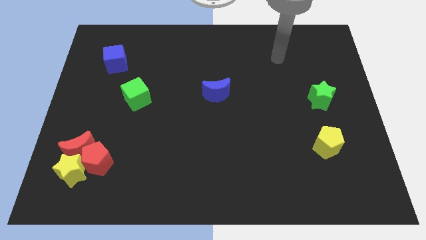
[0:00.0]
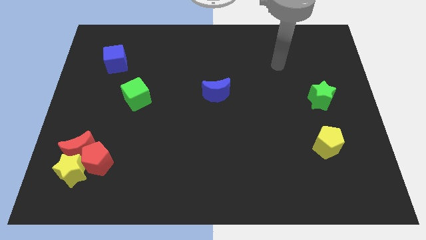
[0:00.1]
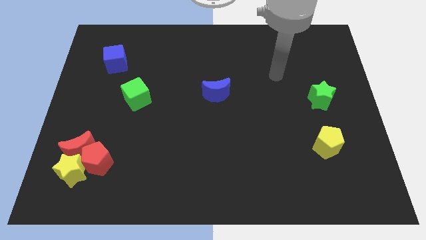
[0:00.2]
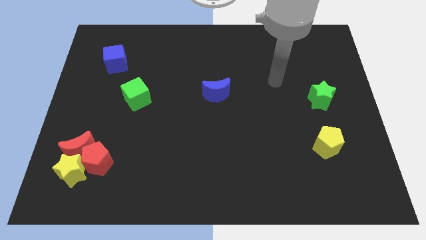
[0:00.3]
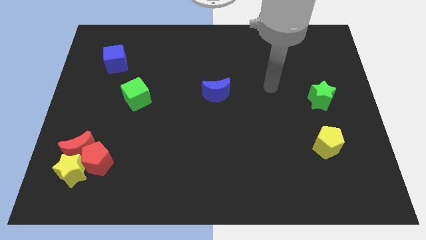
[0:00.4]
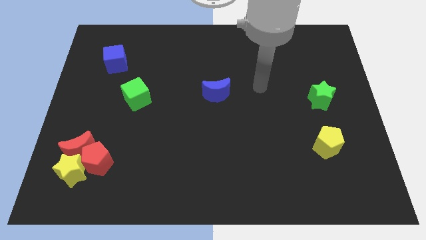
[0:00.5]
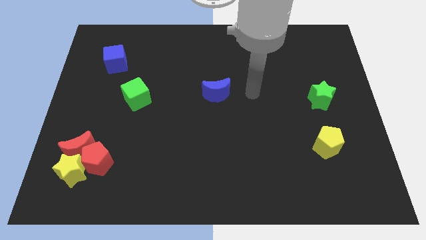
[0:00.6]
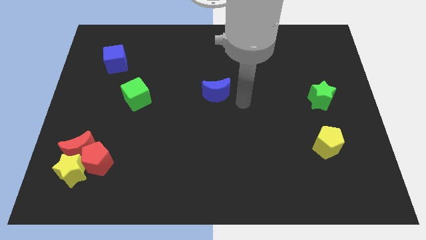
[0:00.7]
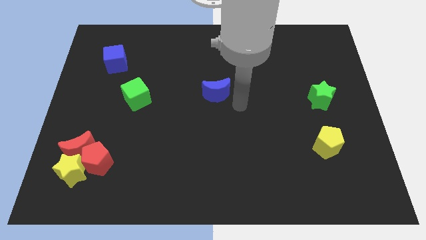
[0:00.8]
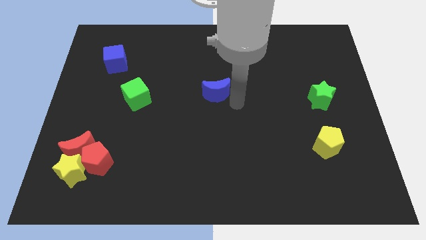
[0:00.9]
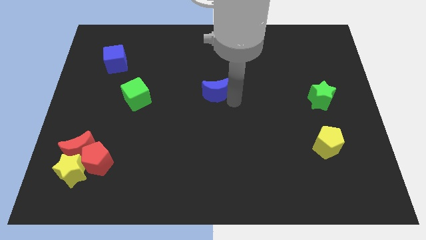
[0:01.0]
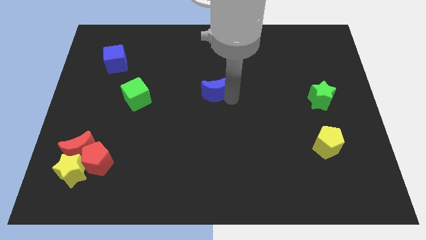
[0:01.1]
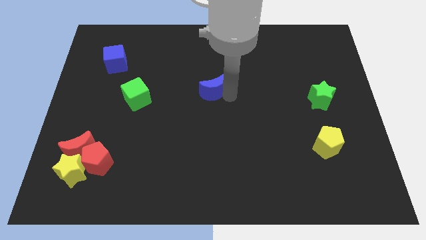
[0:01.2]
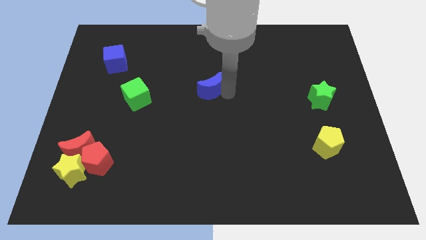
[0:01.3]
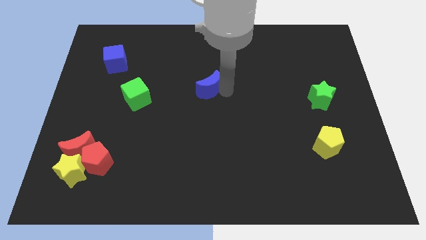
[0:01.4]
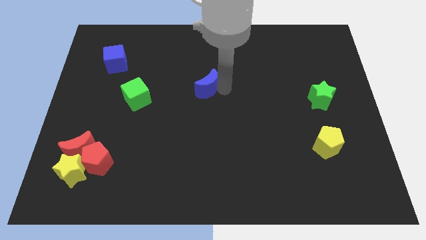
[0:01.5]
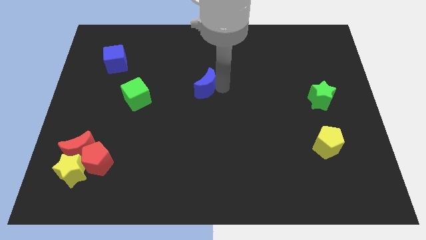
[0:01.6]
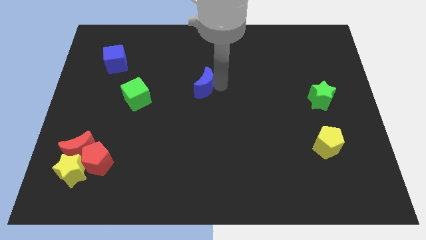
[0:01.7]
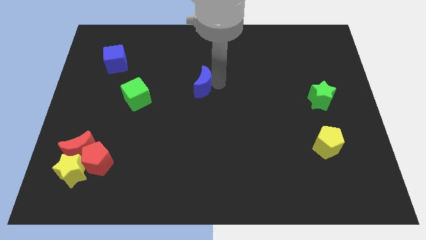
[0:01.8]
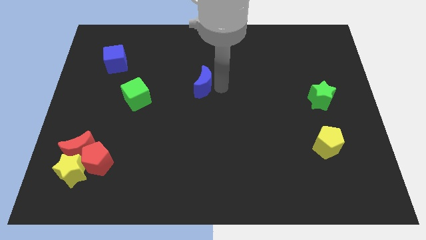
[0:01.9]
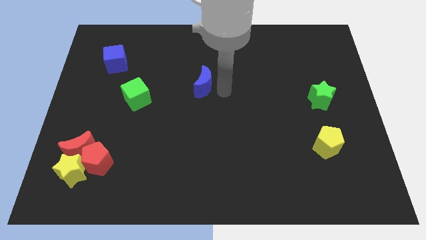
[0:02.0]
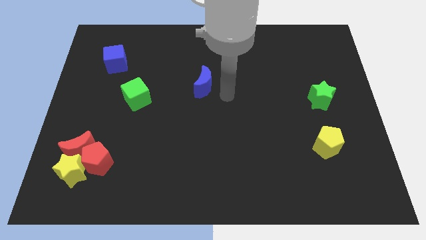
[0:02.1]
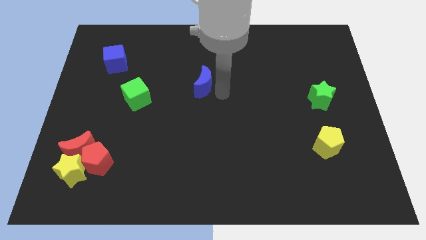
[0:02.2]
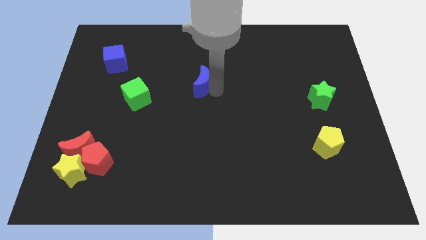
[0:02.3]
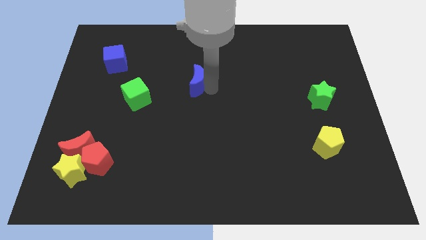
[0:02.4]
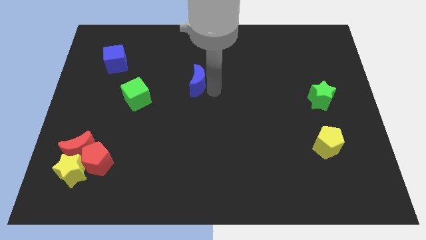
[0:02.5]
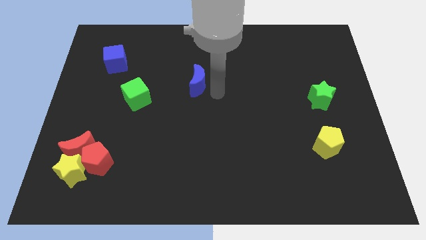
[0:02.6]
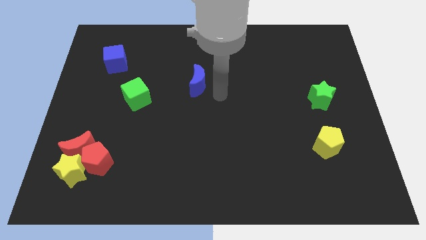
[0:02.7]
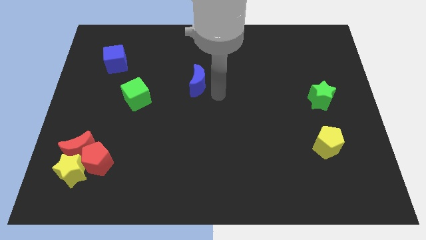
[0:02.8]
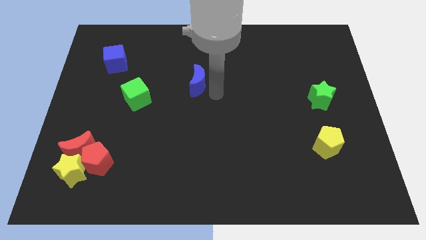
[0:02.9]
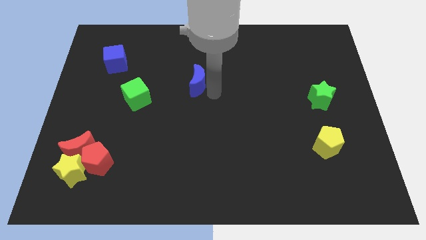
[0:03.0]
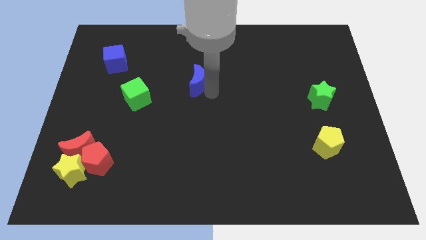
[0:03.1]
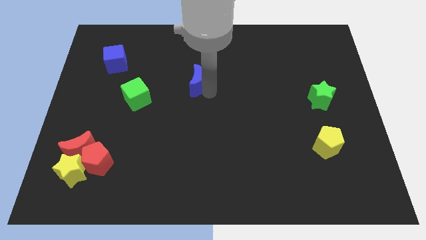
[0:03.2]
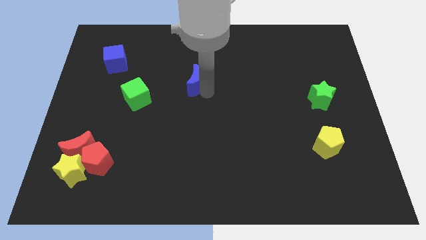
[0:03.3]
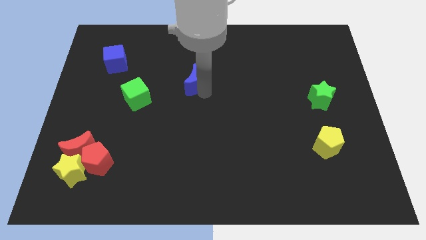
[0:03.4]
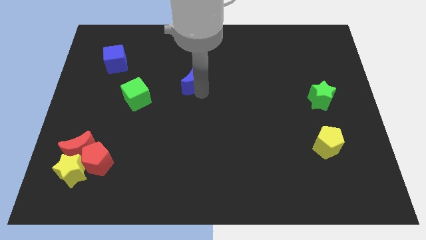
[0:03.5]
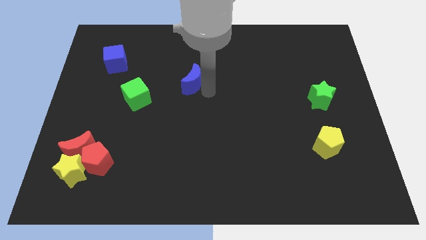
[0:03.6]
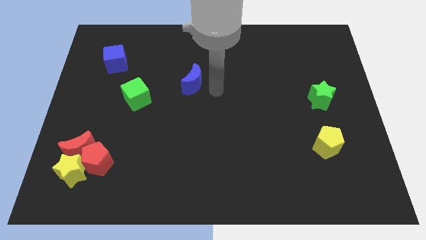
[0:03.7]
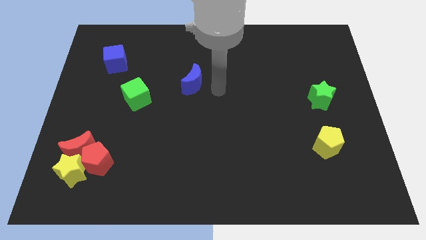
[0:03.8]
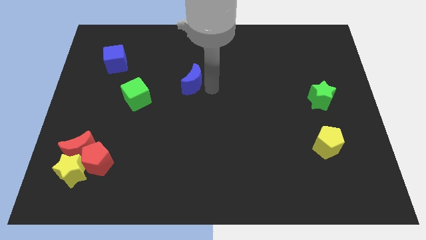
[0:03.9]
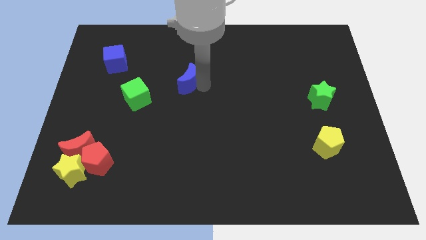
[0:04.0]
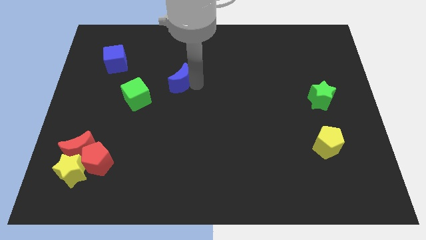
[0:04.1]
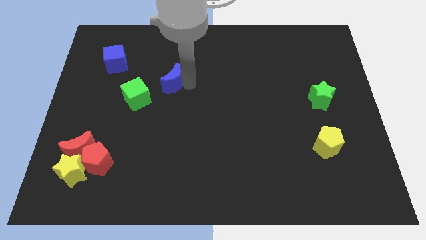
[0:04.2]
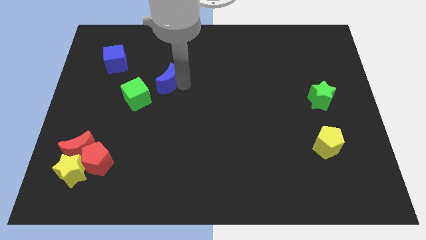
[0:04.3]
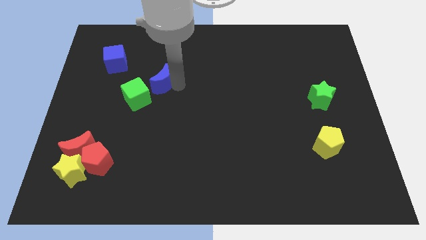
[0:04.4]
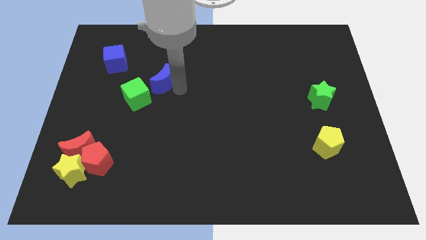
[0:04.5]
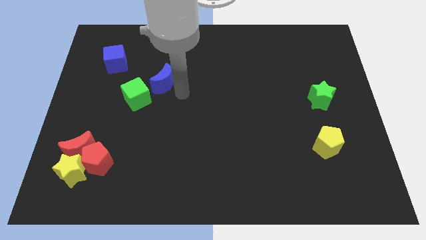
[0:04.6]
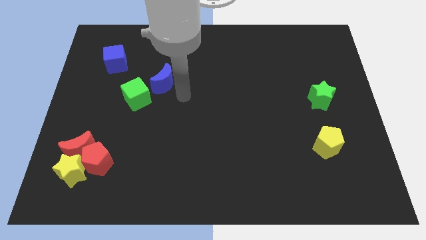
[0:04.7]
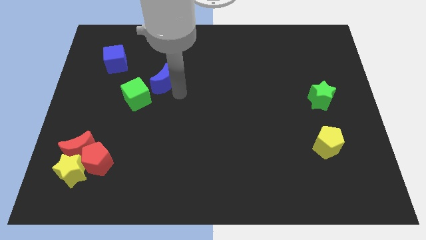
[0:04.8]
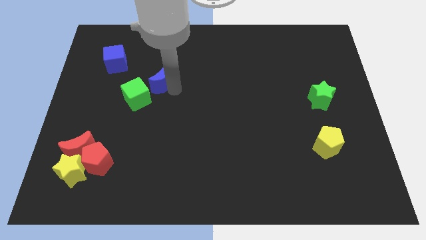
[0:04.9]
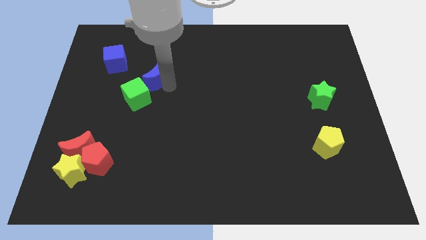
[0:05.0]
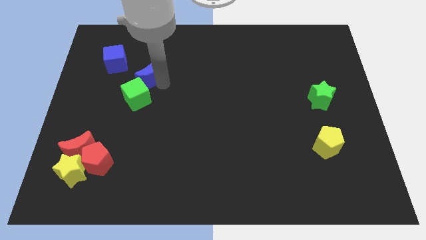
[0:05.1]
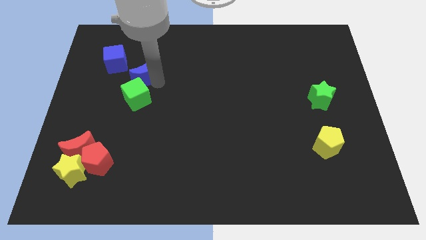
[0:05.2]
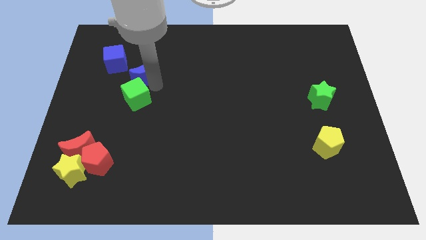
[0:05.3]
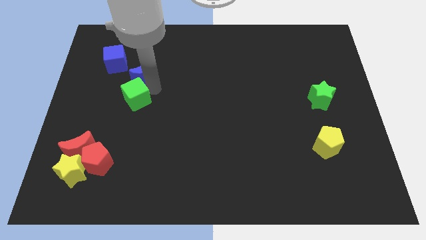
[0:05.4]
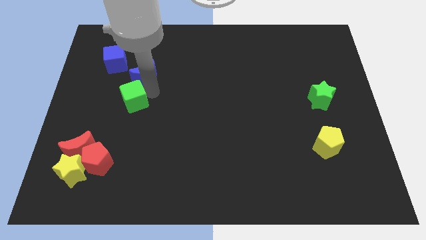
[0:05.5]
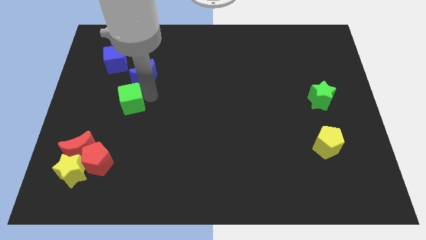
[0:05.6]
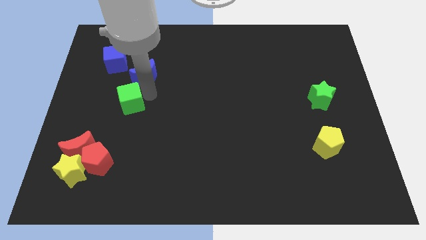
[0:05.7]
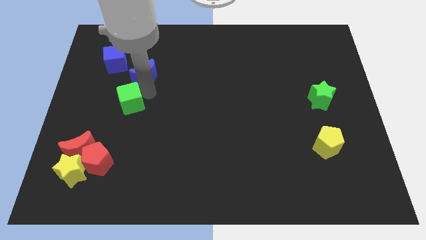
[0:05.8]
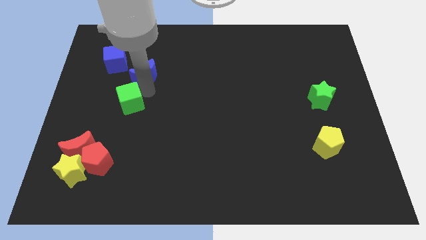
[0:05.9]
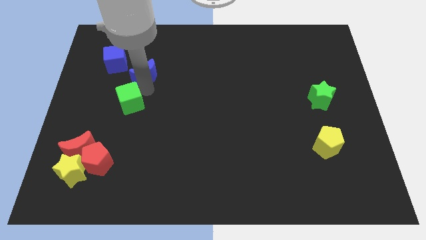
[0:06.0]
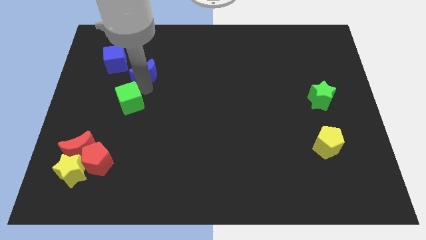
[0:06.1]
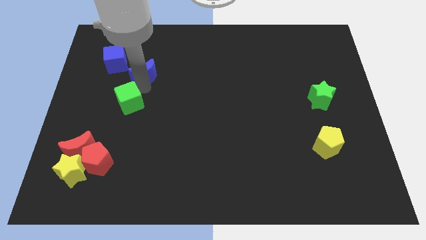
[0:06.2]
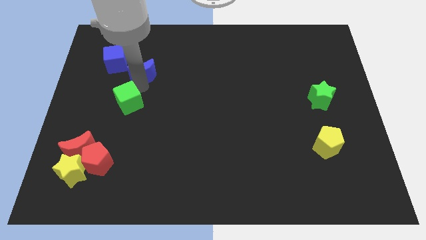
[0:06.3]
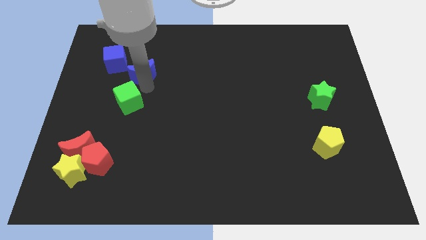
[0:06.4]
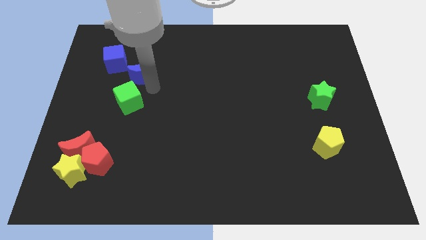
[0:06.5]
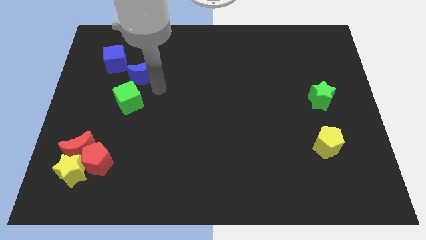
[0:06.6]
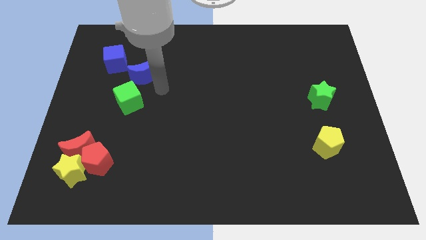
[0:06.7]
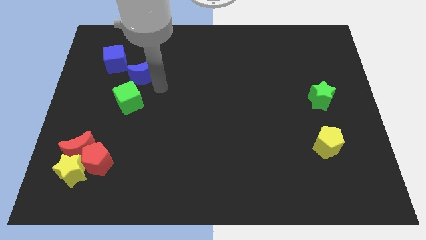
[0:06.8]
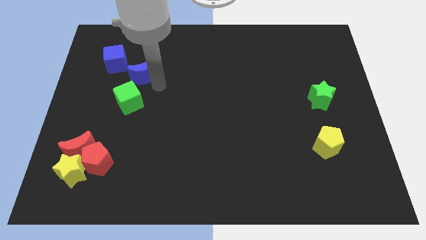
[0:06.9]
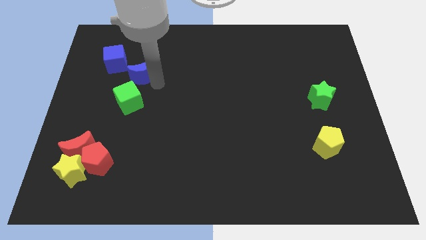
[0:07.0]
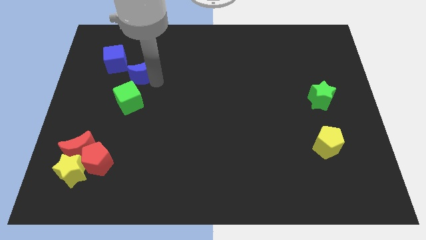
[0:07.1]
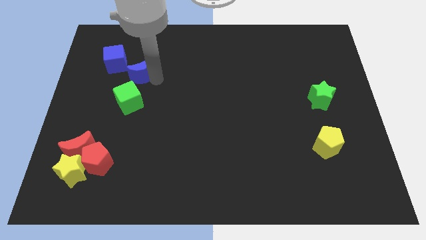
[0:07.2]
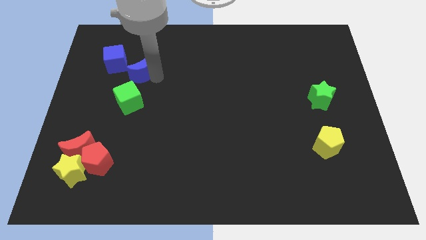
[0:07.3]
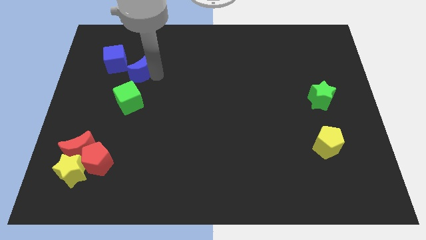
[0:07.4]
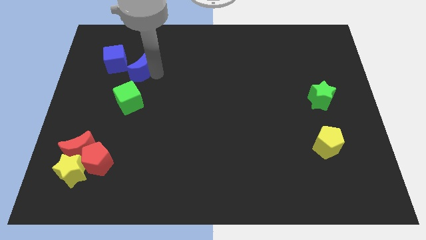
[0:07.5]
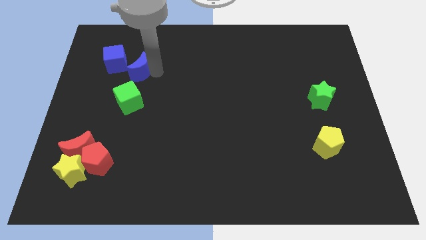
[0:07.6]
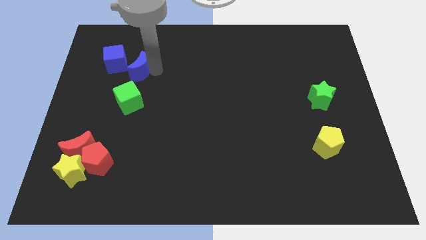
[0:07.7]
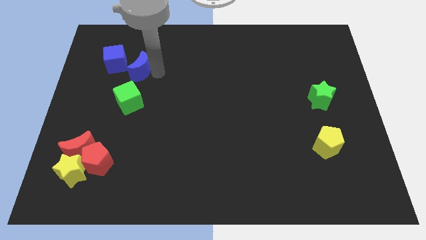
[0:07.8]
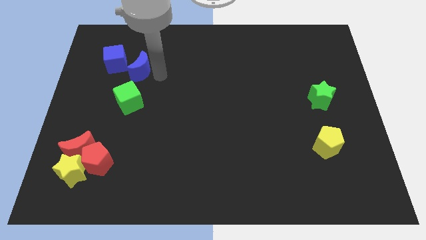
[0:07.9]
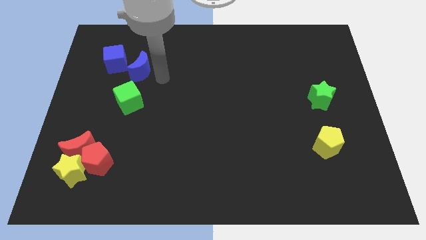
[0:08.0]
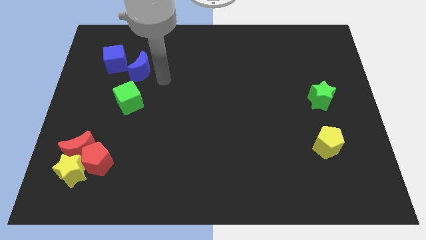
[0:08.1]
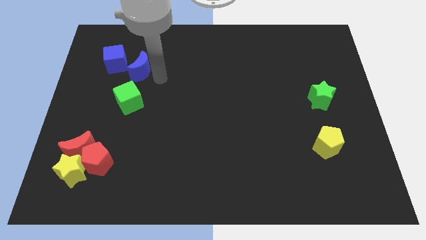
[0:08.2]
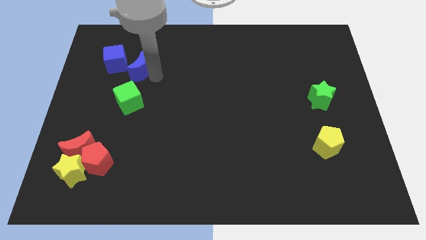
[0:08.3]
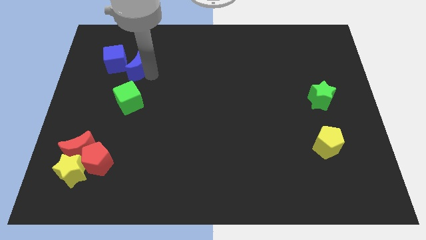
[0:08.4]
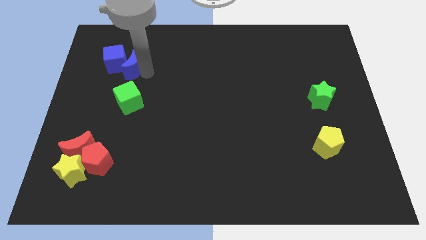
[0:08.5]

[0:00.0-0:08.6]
push the blue moon next to the blue cube
